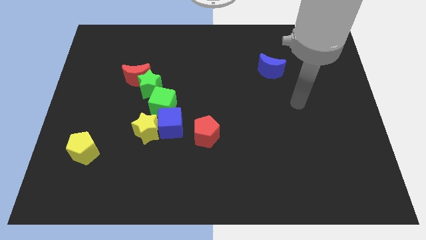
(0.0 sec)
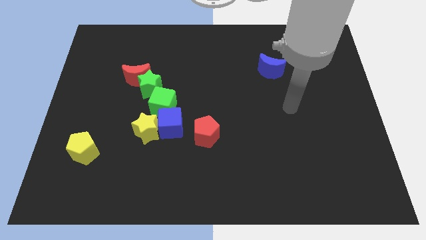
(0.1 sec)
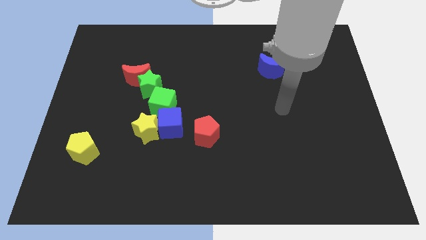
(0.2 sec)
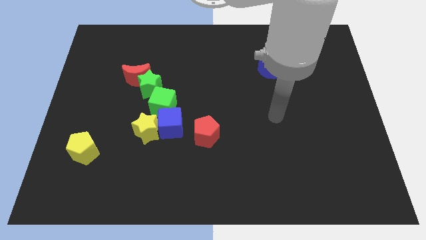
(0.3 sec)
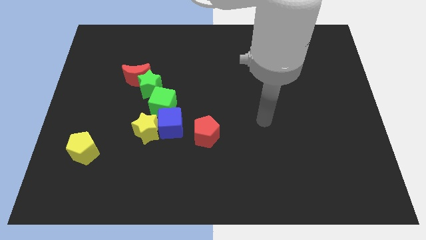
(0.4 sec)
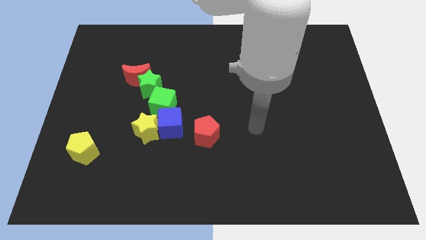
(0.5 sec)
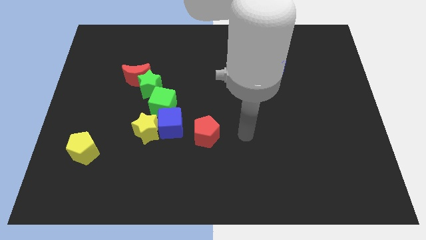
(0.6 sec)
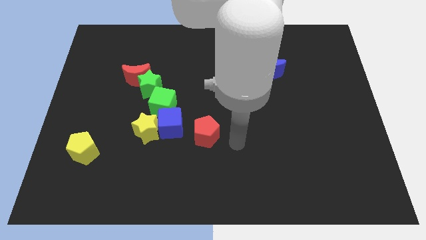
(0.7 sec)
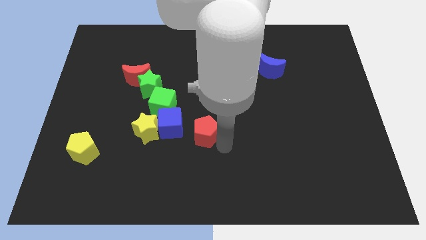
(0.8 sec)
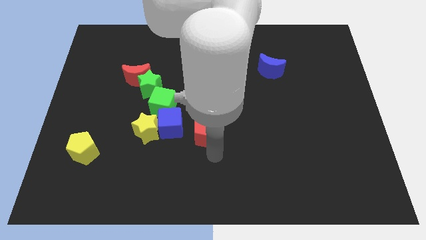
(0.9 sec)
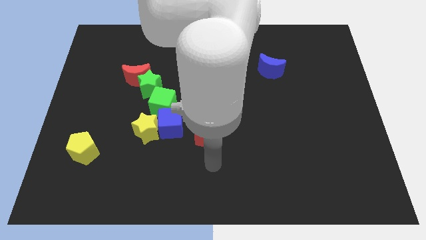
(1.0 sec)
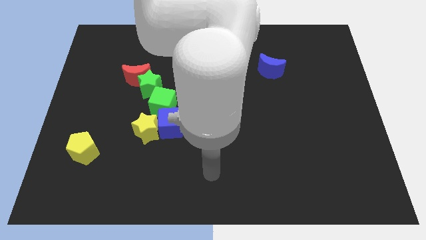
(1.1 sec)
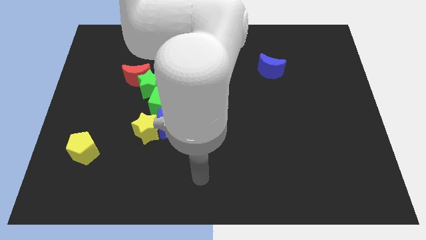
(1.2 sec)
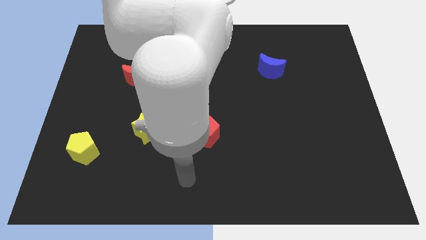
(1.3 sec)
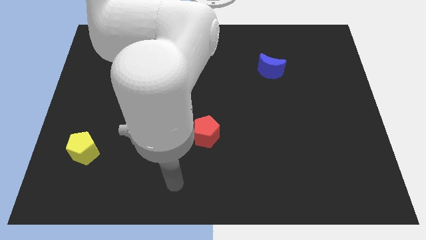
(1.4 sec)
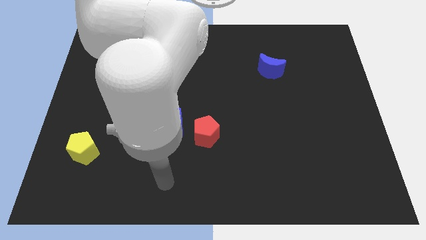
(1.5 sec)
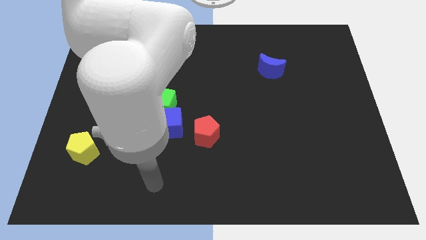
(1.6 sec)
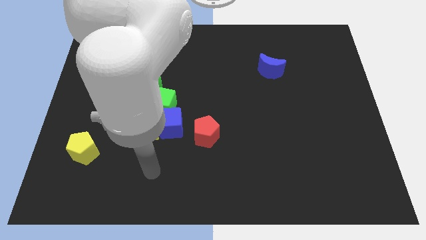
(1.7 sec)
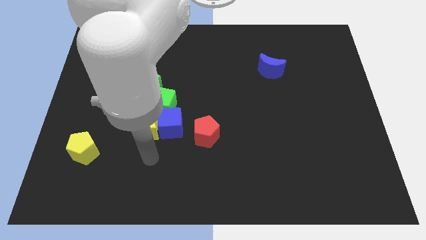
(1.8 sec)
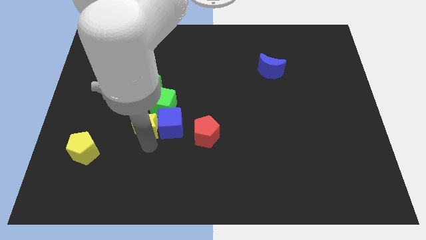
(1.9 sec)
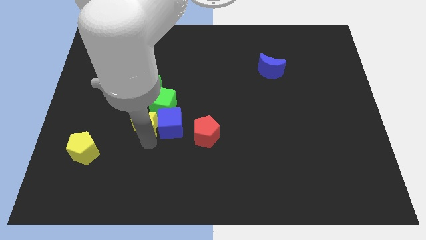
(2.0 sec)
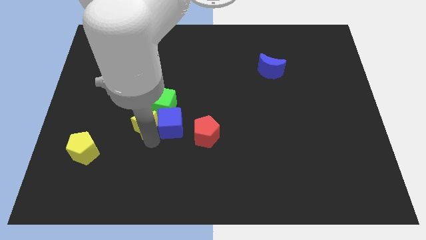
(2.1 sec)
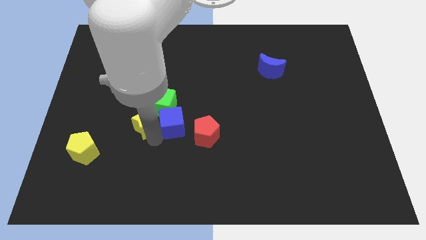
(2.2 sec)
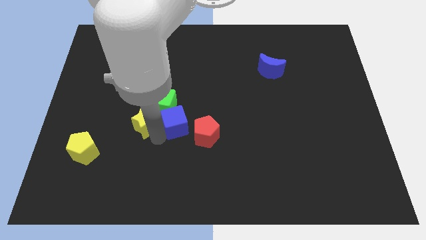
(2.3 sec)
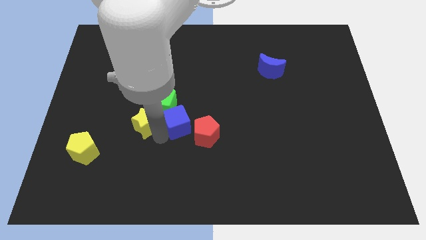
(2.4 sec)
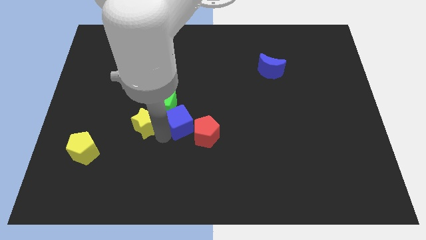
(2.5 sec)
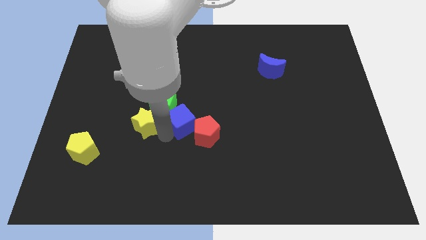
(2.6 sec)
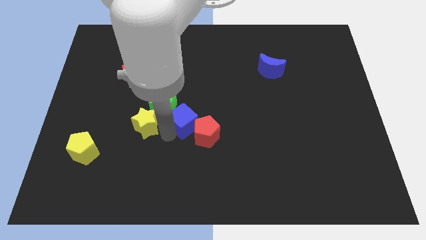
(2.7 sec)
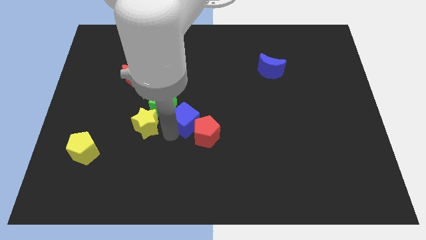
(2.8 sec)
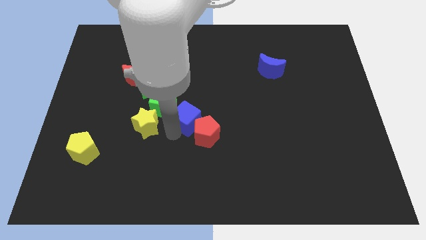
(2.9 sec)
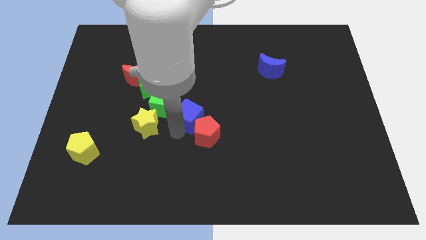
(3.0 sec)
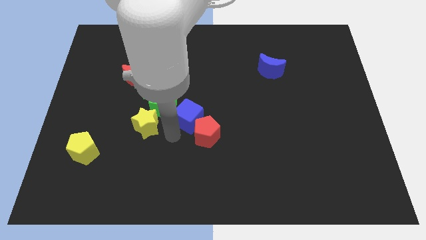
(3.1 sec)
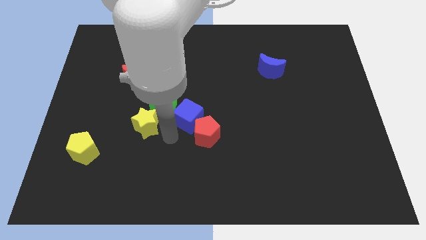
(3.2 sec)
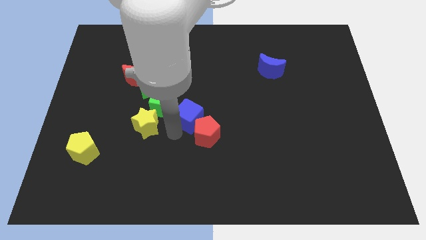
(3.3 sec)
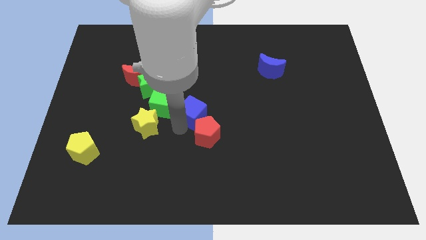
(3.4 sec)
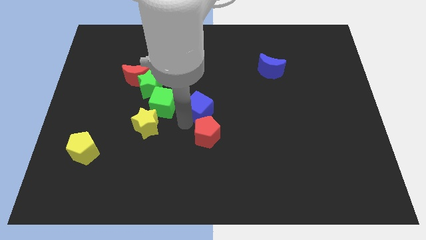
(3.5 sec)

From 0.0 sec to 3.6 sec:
slide the blue cube upwards and then to the right a bit

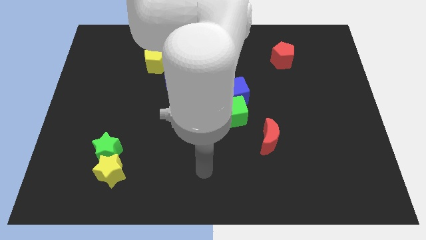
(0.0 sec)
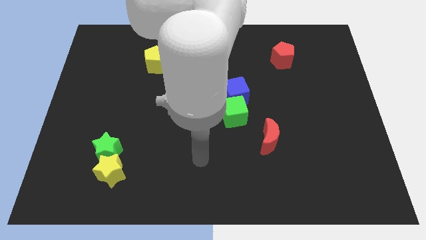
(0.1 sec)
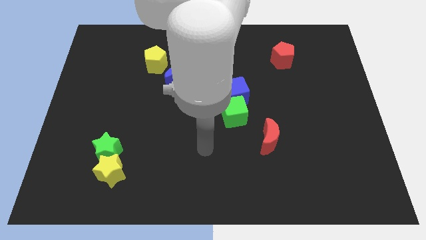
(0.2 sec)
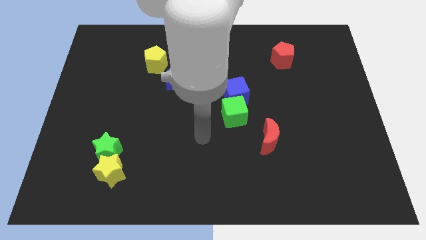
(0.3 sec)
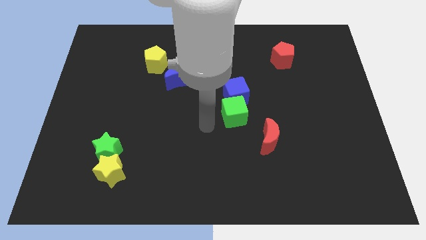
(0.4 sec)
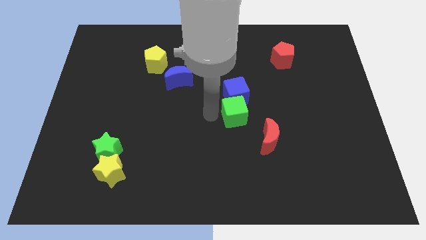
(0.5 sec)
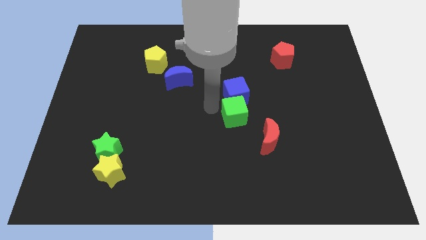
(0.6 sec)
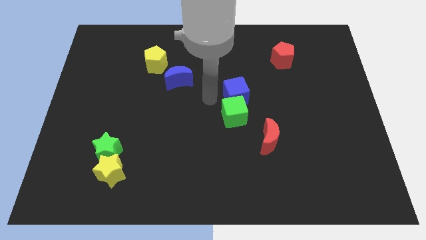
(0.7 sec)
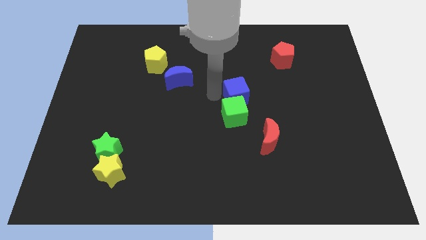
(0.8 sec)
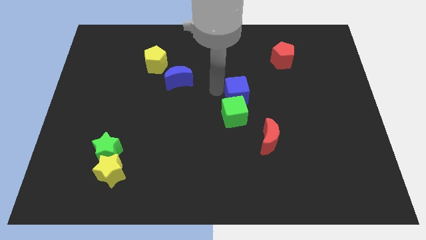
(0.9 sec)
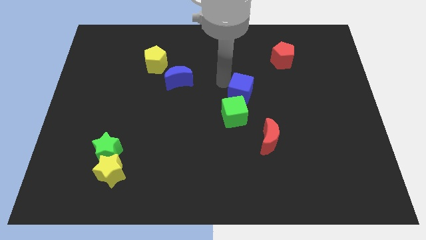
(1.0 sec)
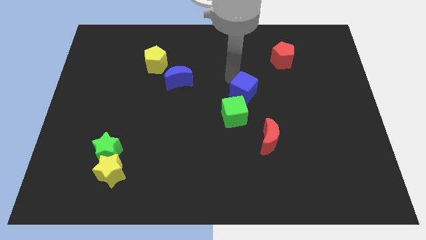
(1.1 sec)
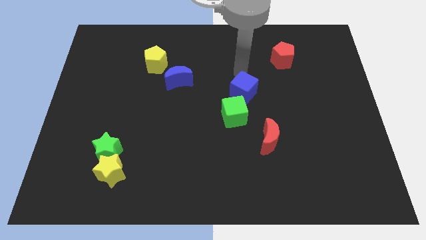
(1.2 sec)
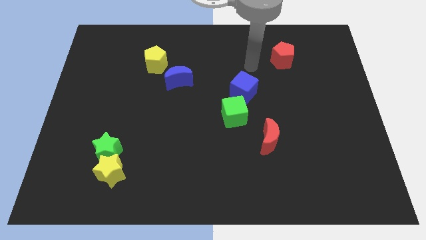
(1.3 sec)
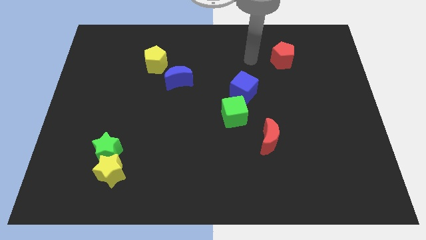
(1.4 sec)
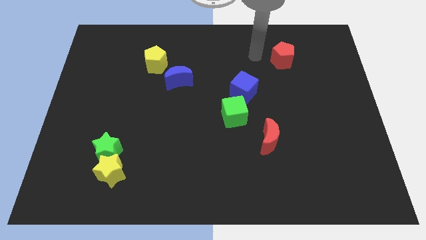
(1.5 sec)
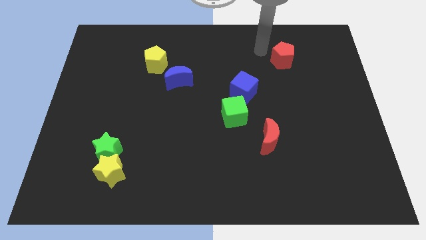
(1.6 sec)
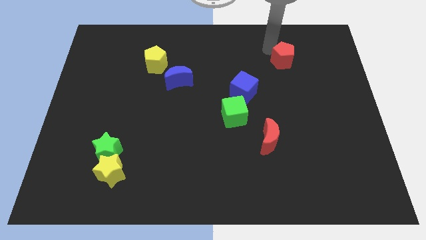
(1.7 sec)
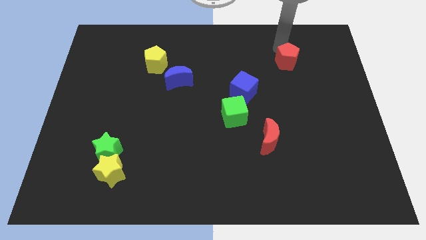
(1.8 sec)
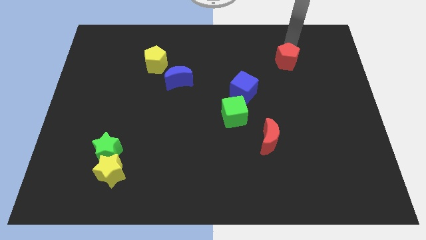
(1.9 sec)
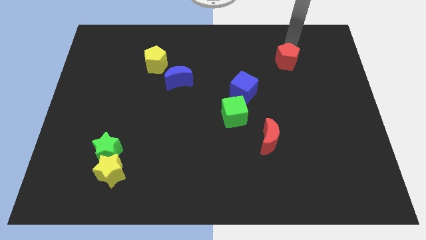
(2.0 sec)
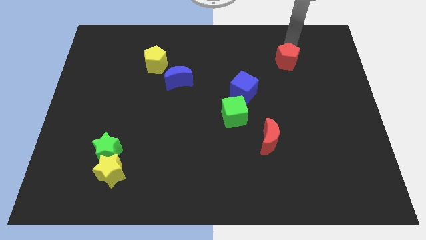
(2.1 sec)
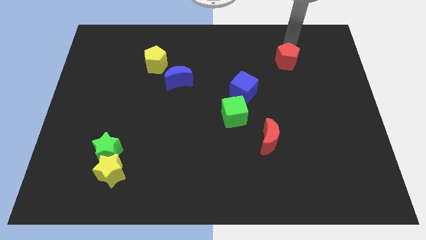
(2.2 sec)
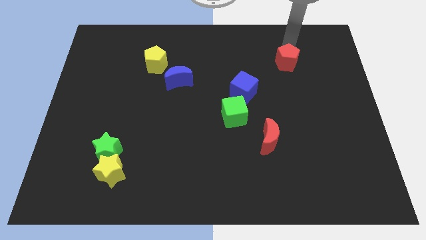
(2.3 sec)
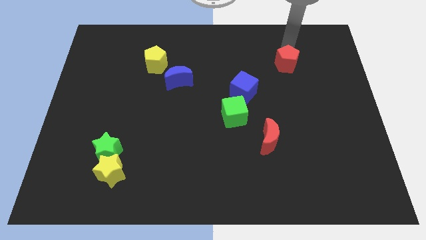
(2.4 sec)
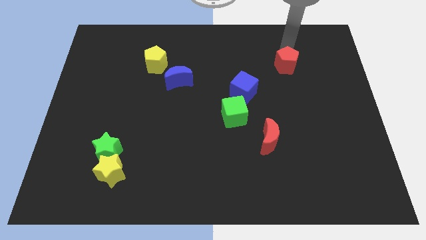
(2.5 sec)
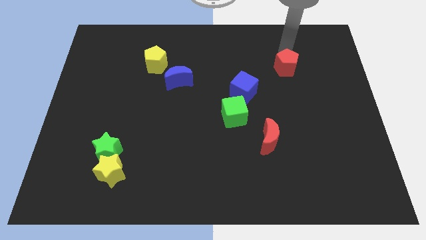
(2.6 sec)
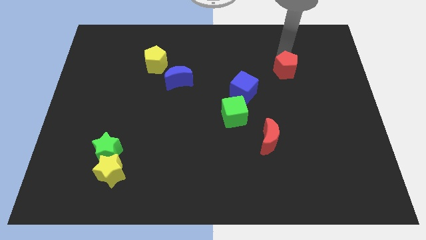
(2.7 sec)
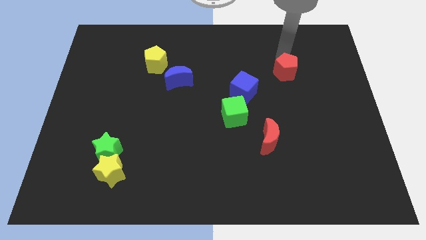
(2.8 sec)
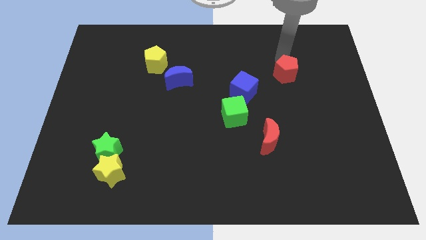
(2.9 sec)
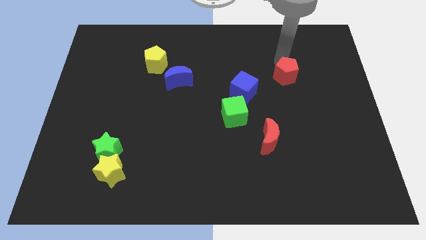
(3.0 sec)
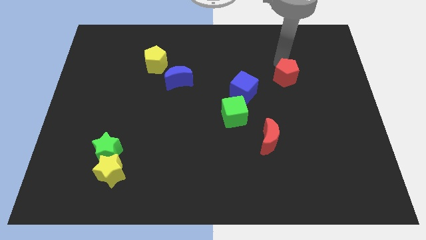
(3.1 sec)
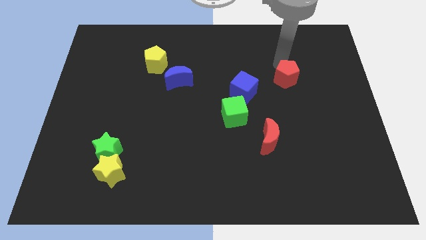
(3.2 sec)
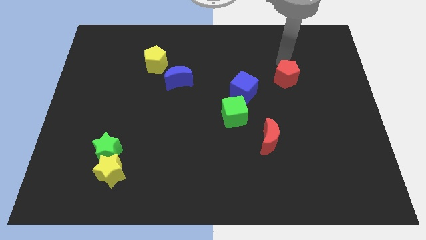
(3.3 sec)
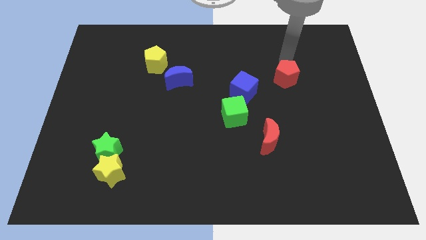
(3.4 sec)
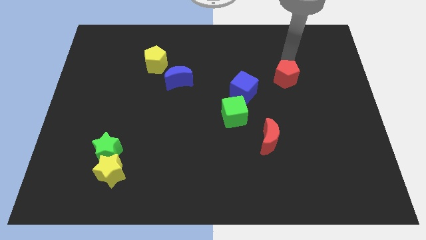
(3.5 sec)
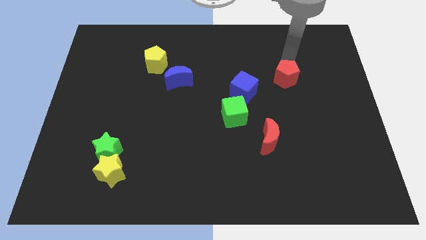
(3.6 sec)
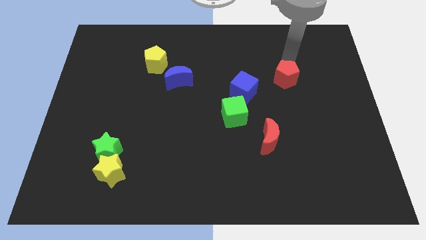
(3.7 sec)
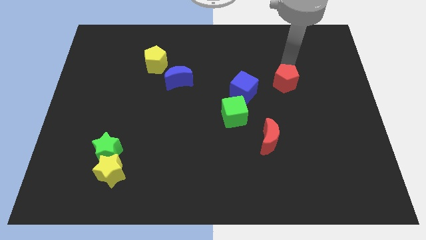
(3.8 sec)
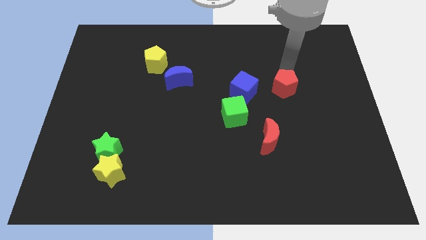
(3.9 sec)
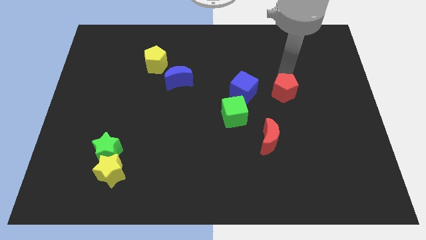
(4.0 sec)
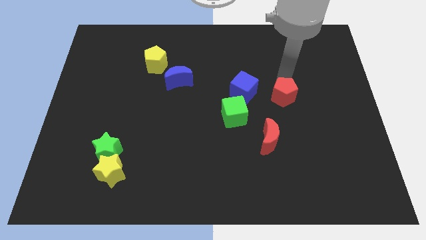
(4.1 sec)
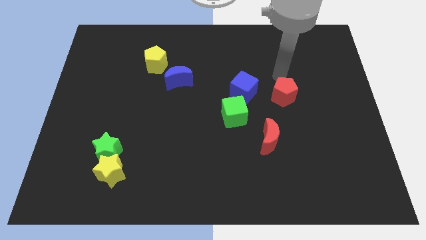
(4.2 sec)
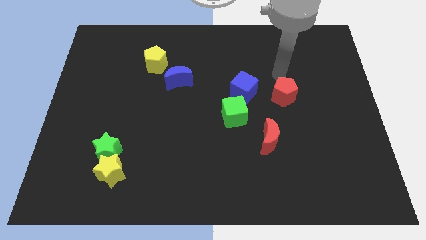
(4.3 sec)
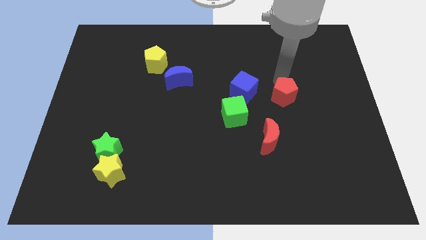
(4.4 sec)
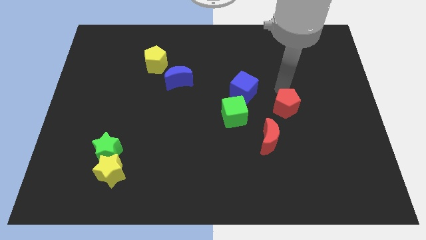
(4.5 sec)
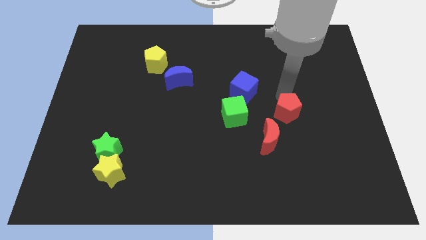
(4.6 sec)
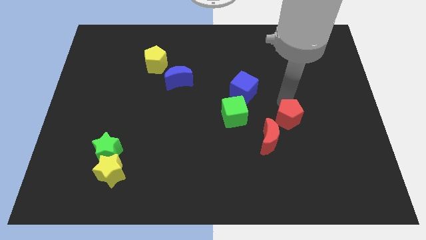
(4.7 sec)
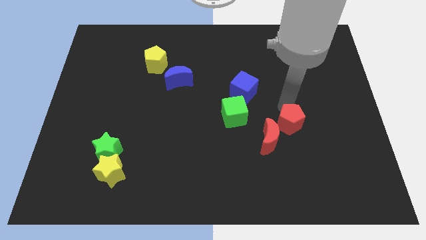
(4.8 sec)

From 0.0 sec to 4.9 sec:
slide the red pentagon down
